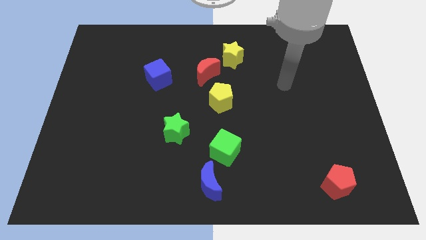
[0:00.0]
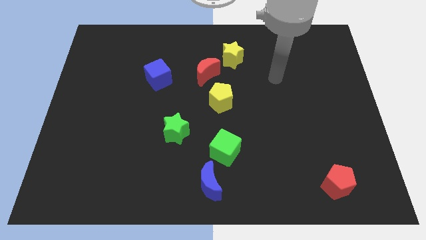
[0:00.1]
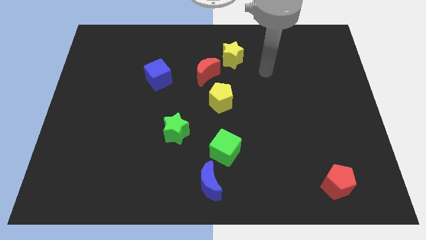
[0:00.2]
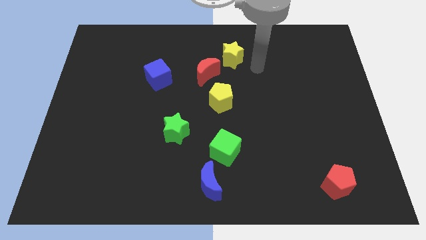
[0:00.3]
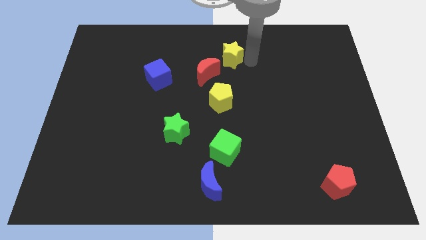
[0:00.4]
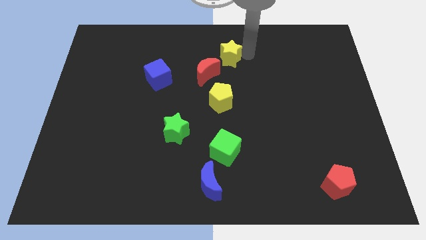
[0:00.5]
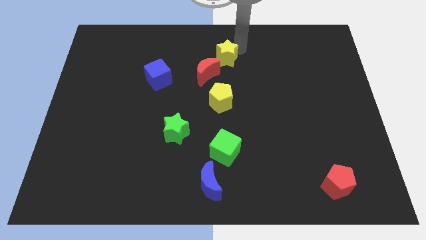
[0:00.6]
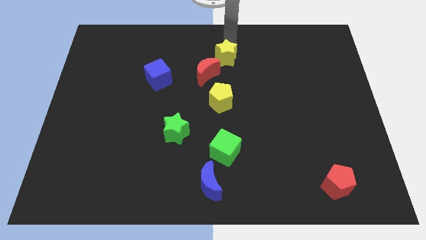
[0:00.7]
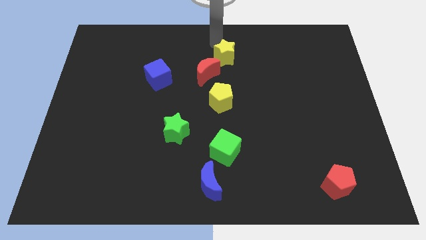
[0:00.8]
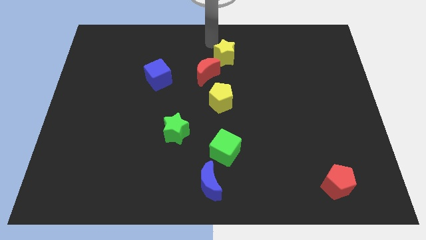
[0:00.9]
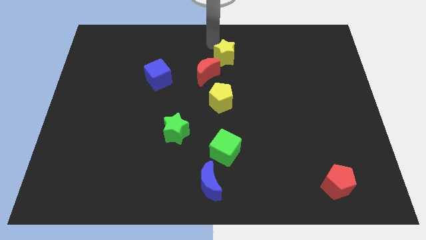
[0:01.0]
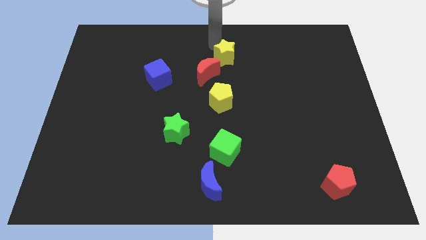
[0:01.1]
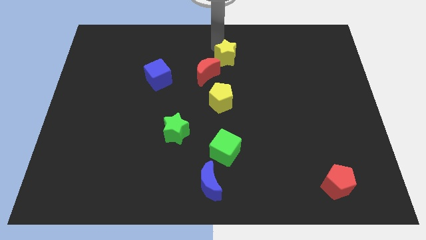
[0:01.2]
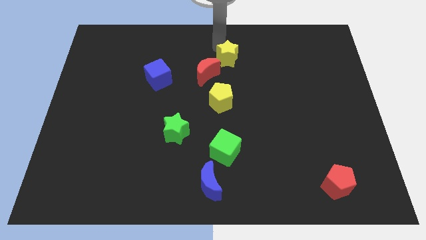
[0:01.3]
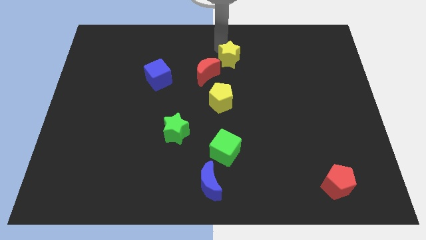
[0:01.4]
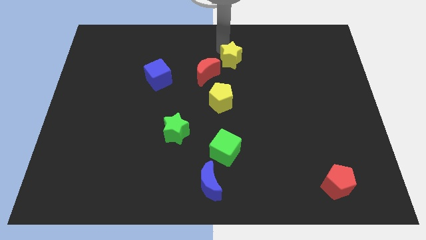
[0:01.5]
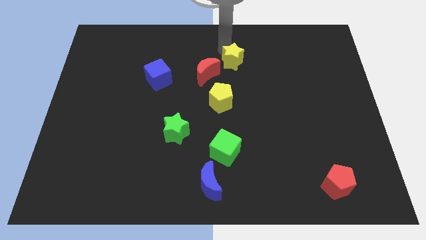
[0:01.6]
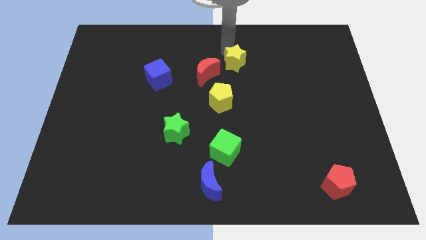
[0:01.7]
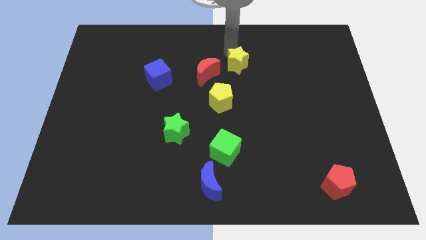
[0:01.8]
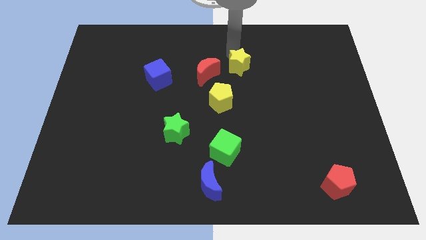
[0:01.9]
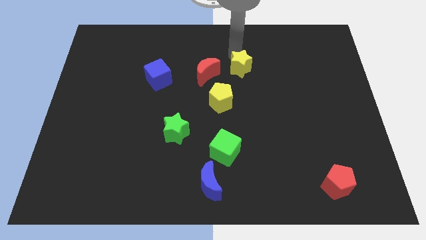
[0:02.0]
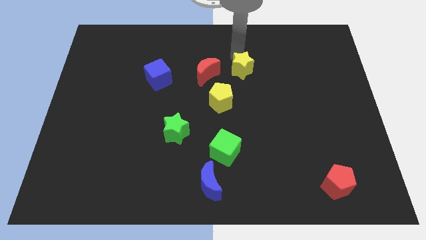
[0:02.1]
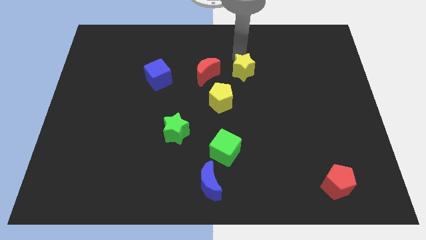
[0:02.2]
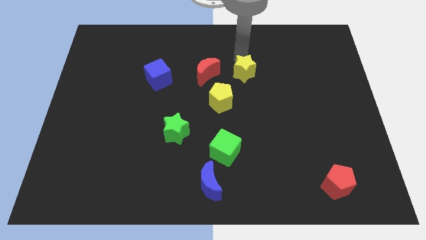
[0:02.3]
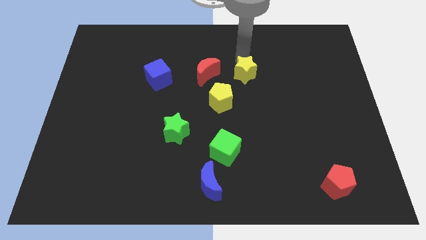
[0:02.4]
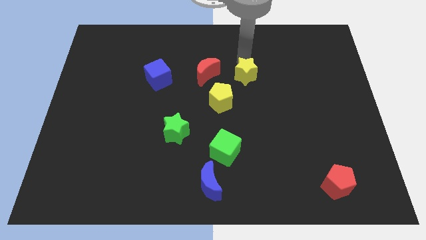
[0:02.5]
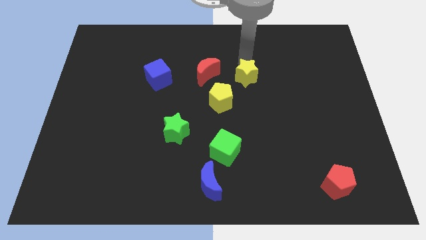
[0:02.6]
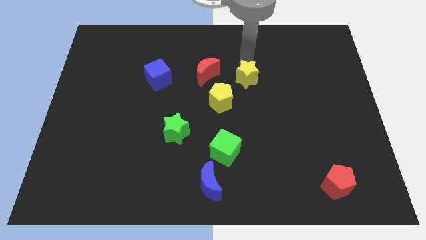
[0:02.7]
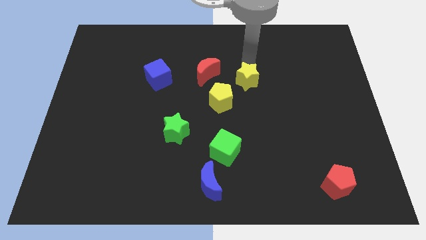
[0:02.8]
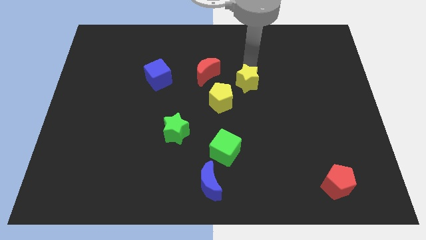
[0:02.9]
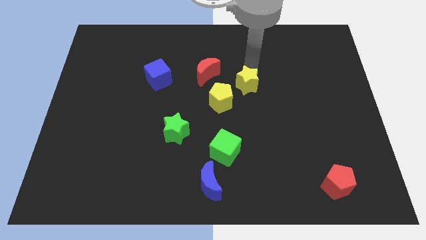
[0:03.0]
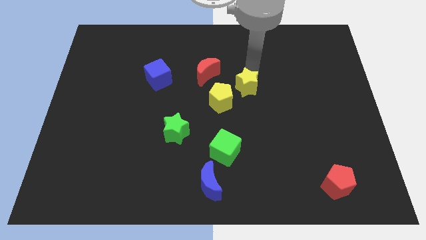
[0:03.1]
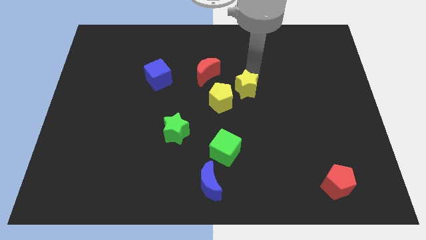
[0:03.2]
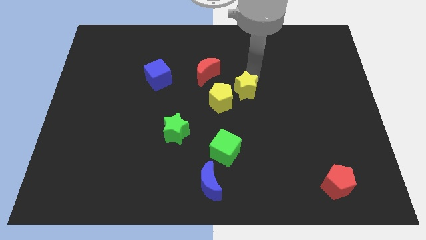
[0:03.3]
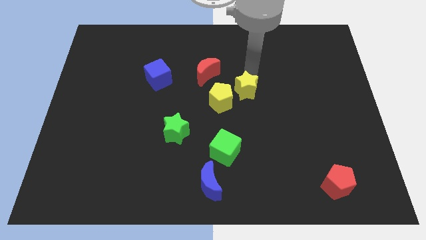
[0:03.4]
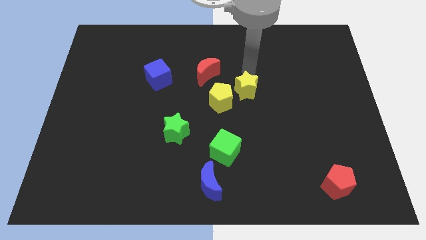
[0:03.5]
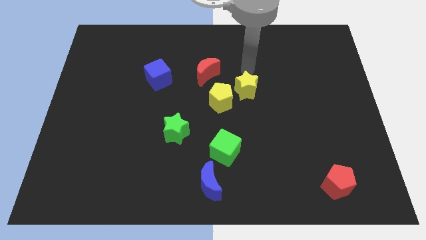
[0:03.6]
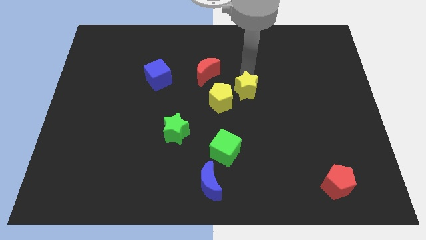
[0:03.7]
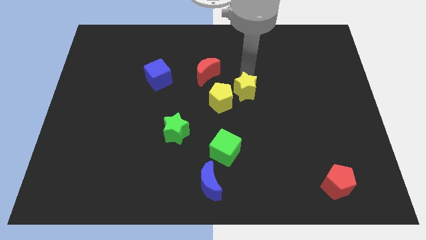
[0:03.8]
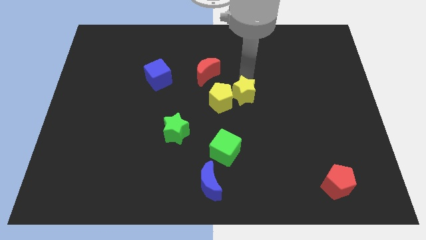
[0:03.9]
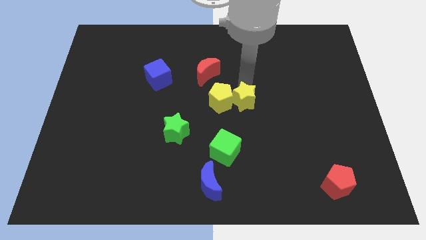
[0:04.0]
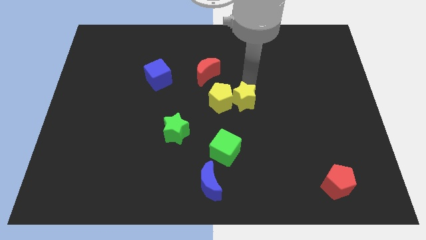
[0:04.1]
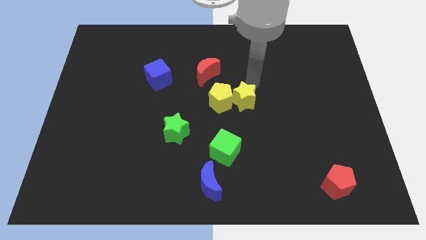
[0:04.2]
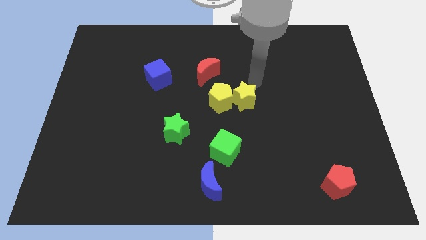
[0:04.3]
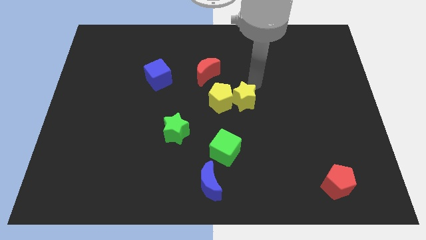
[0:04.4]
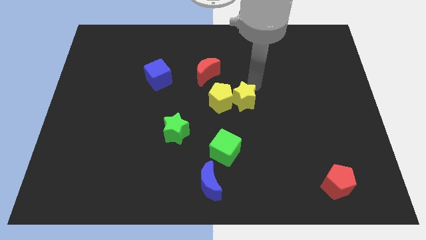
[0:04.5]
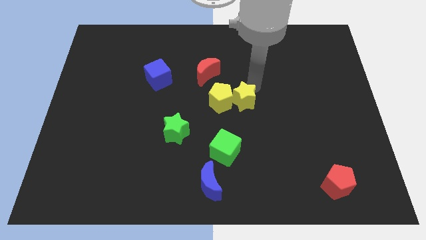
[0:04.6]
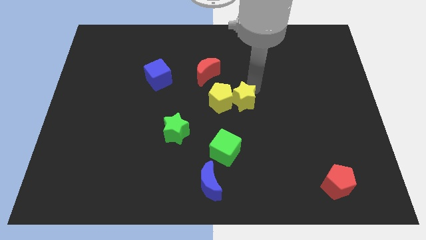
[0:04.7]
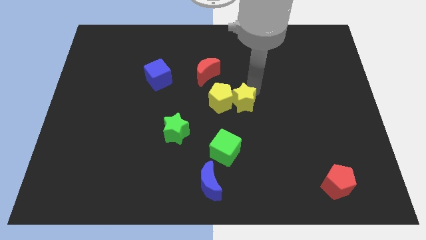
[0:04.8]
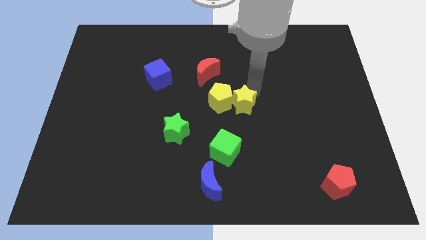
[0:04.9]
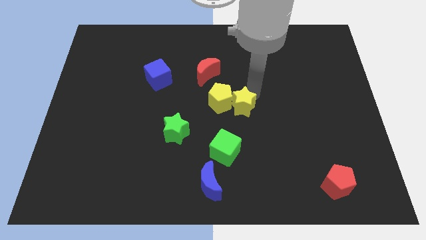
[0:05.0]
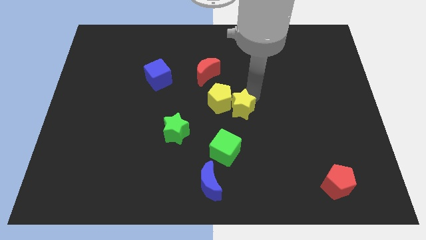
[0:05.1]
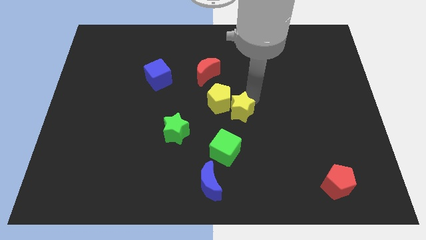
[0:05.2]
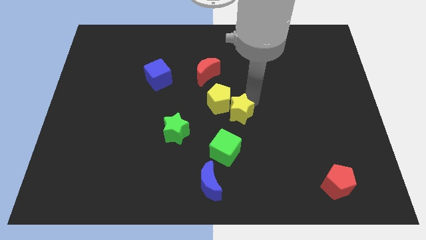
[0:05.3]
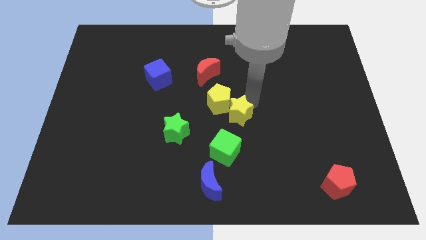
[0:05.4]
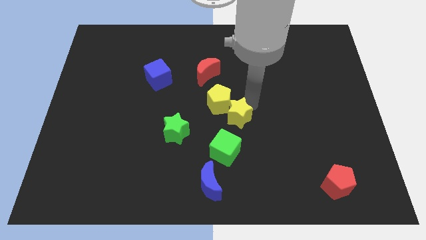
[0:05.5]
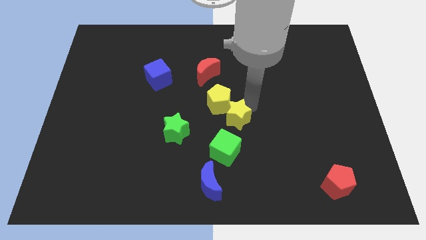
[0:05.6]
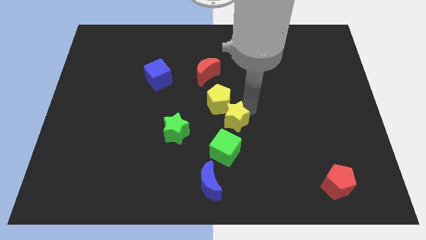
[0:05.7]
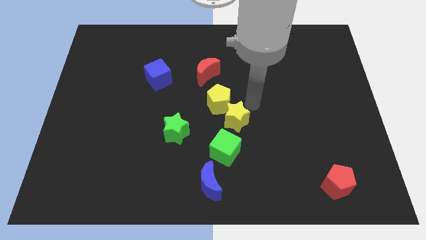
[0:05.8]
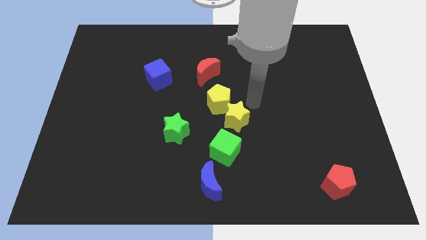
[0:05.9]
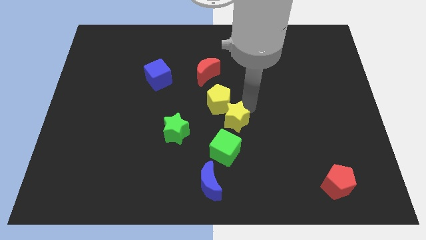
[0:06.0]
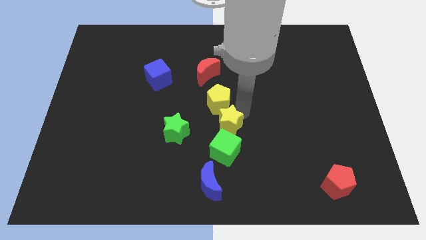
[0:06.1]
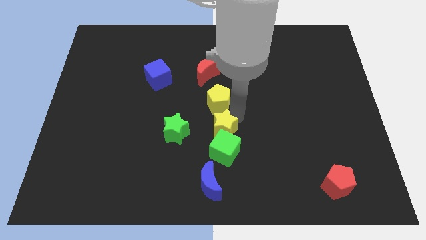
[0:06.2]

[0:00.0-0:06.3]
slide the yellow star above the blue moon
